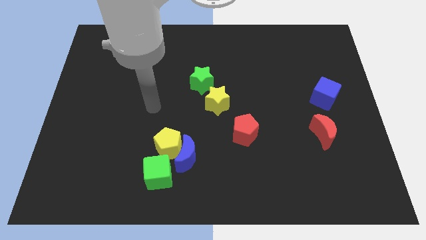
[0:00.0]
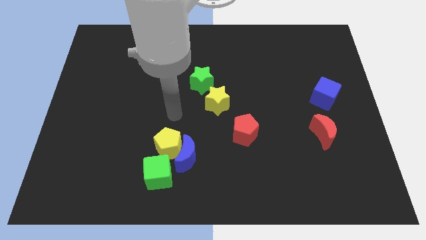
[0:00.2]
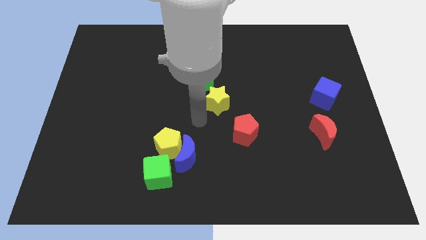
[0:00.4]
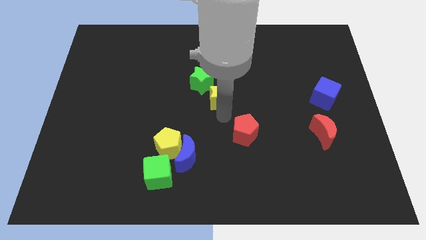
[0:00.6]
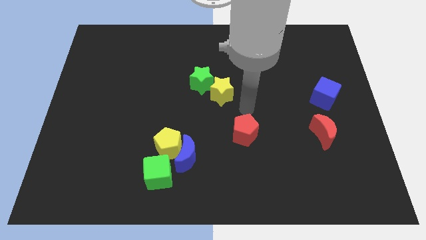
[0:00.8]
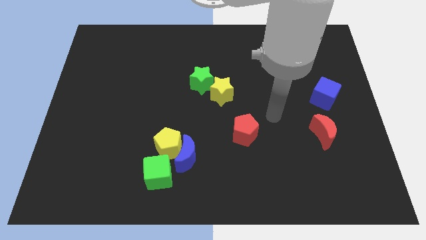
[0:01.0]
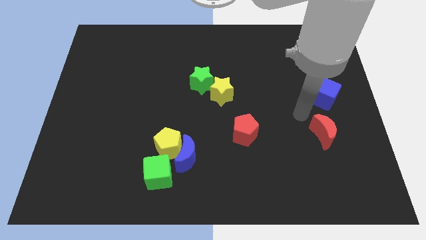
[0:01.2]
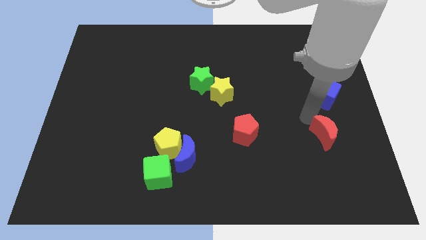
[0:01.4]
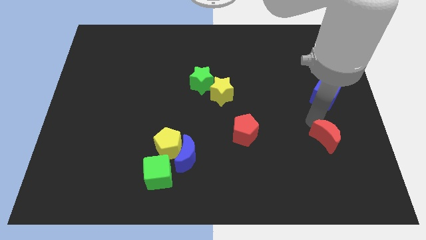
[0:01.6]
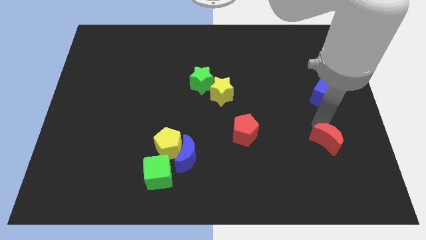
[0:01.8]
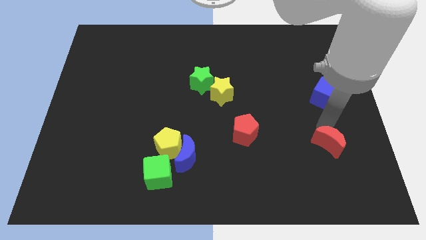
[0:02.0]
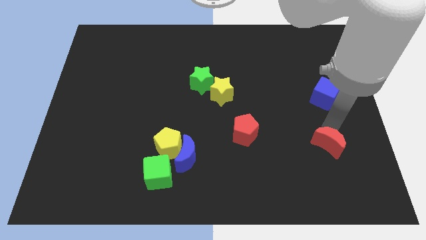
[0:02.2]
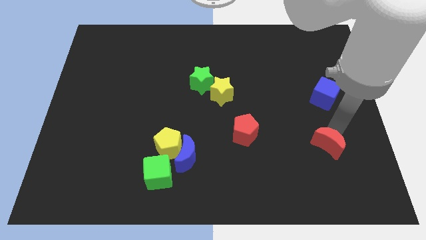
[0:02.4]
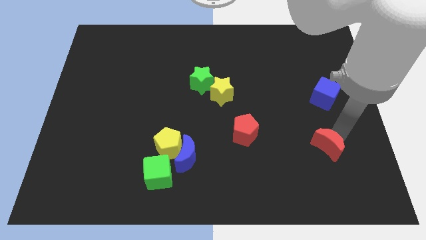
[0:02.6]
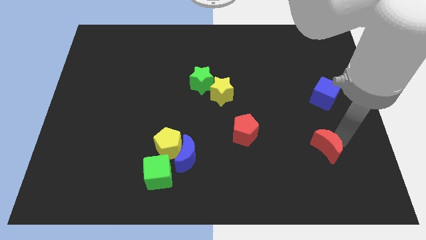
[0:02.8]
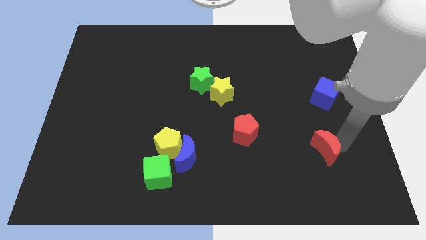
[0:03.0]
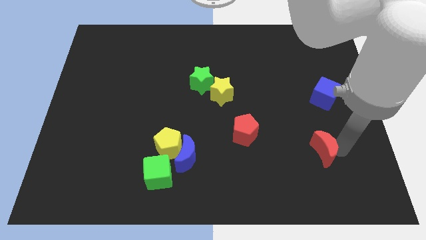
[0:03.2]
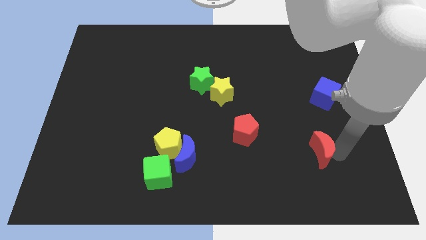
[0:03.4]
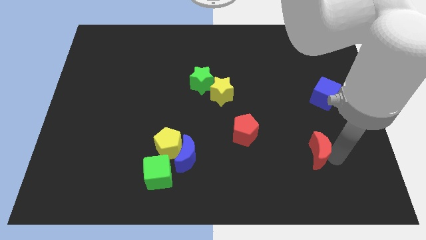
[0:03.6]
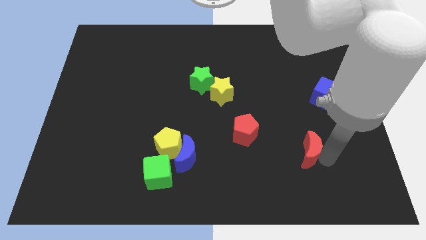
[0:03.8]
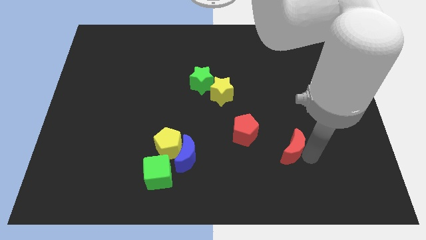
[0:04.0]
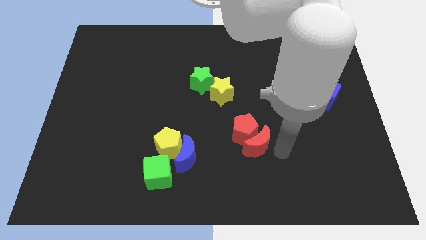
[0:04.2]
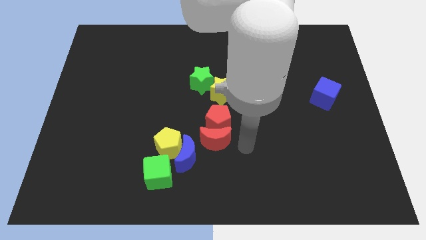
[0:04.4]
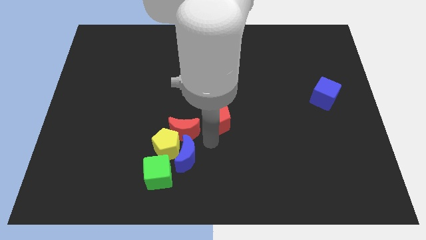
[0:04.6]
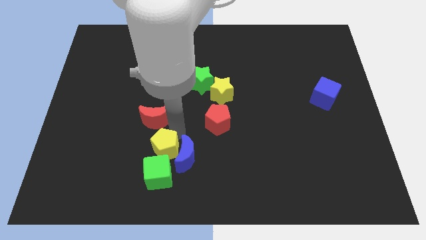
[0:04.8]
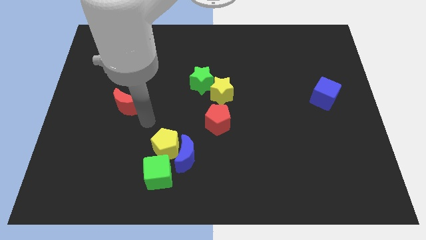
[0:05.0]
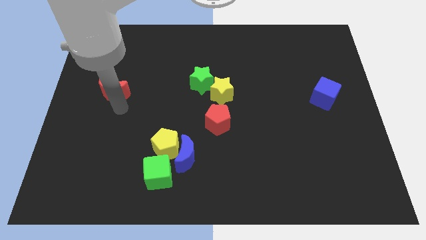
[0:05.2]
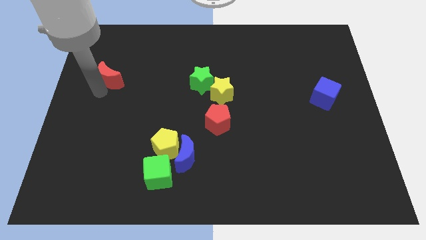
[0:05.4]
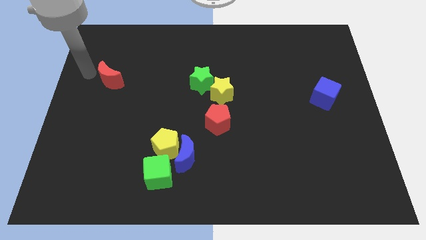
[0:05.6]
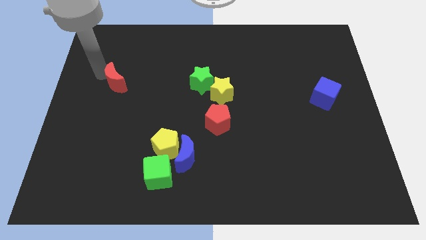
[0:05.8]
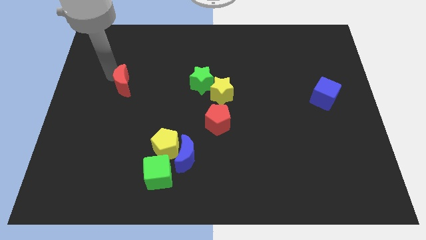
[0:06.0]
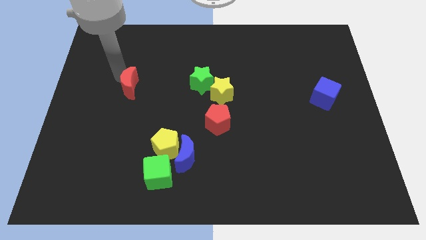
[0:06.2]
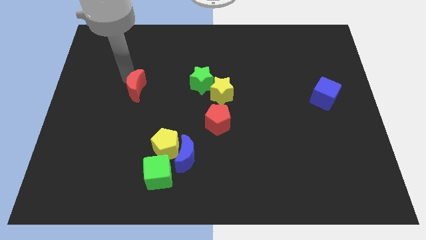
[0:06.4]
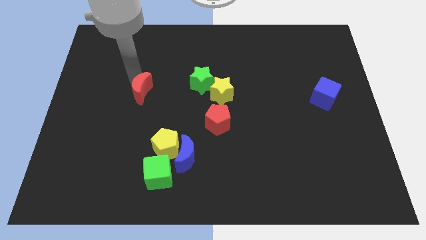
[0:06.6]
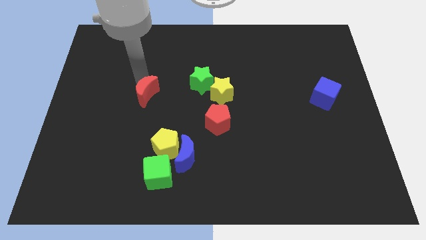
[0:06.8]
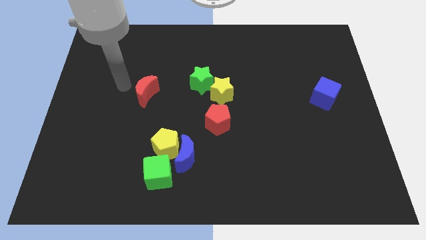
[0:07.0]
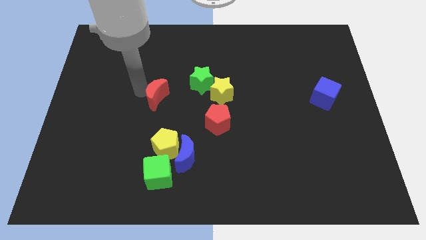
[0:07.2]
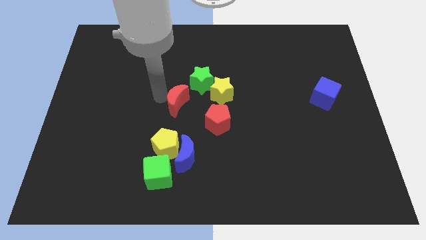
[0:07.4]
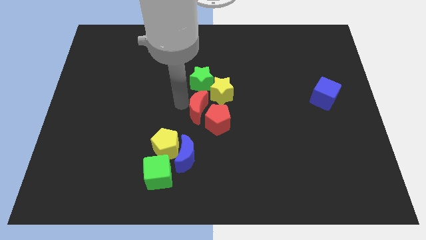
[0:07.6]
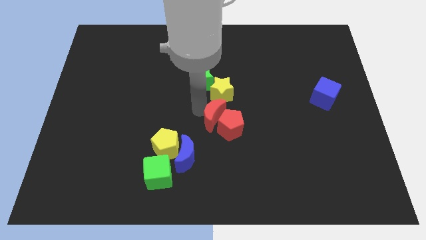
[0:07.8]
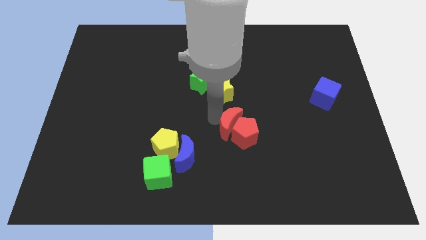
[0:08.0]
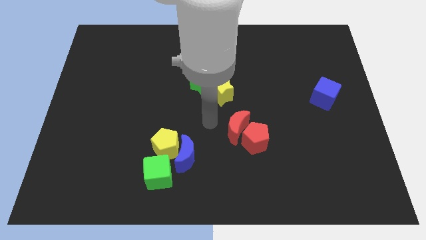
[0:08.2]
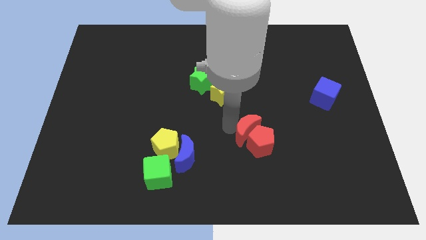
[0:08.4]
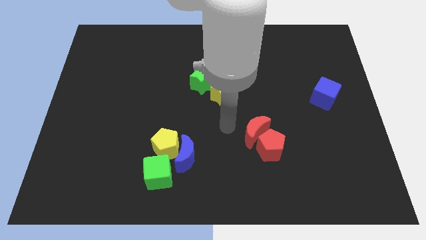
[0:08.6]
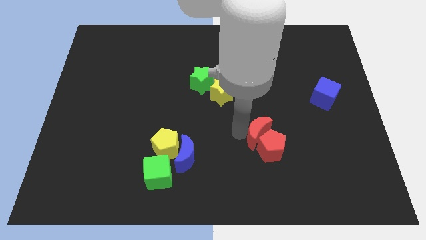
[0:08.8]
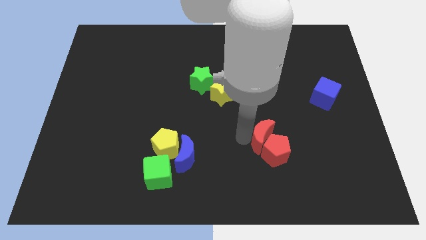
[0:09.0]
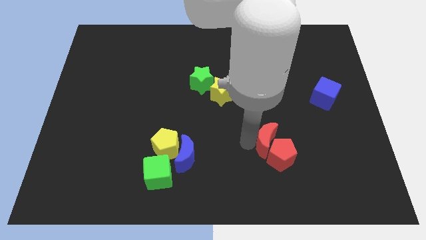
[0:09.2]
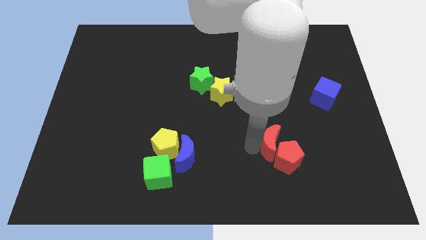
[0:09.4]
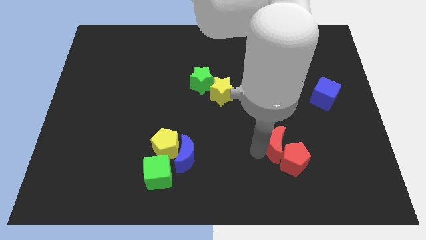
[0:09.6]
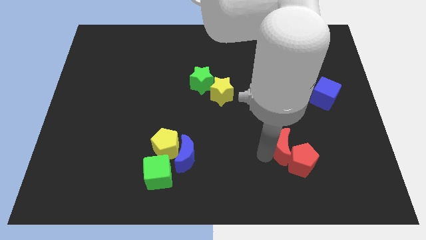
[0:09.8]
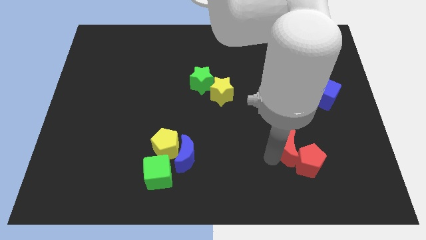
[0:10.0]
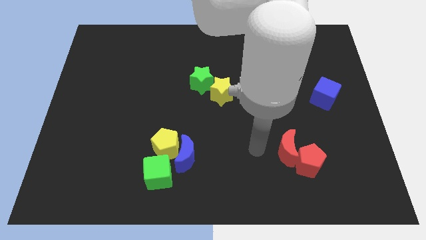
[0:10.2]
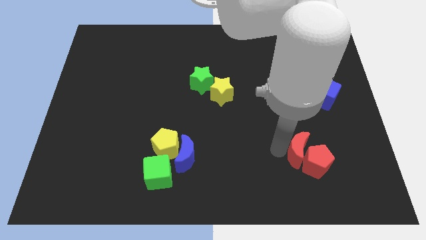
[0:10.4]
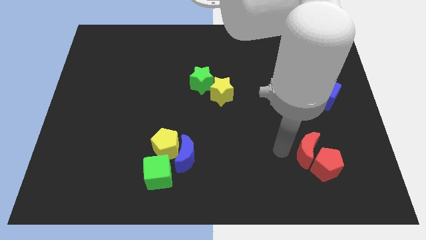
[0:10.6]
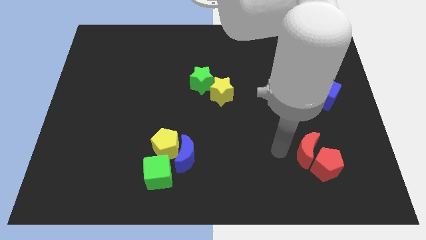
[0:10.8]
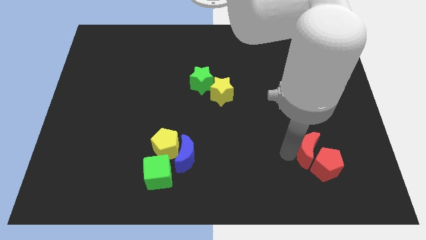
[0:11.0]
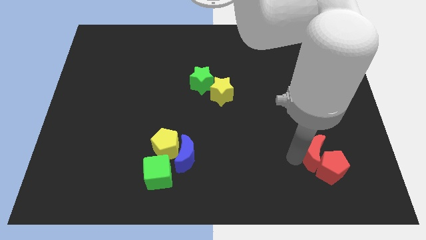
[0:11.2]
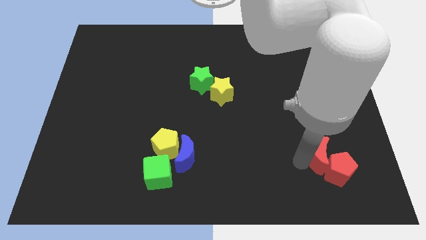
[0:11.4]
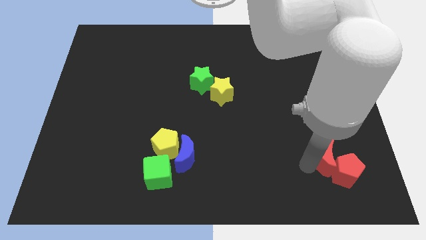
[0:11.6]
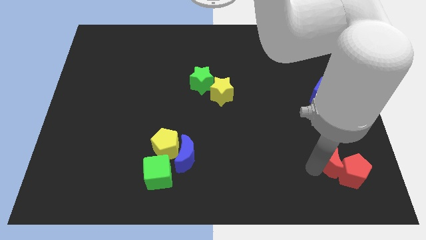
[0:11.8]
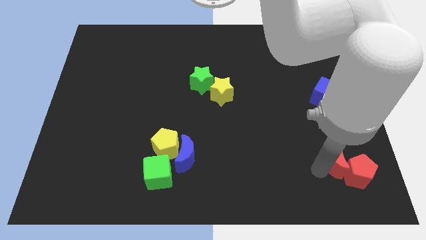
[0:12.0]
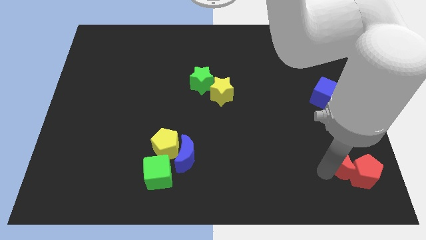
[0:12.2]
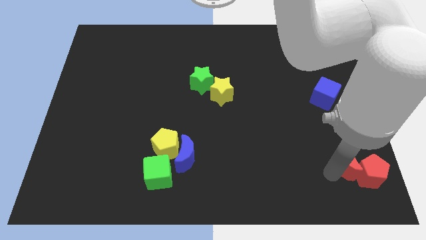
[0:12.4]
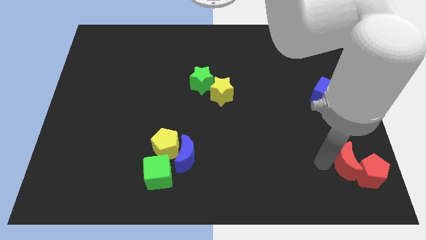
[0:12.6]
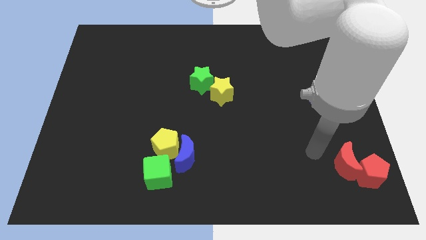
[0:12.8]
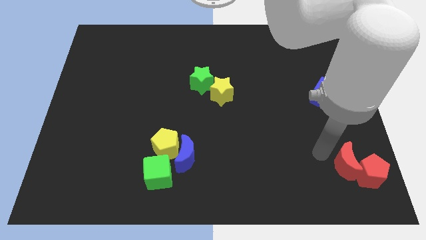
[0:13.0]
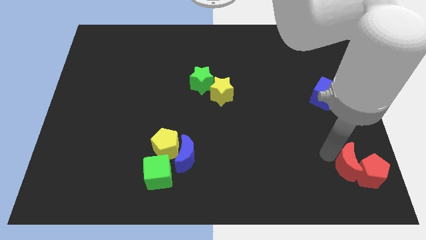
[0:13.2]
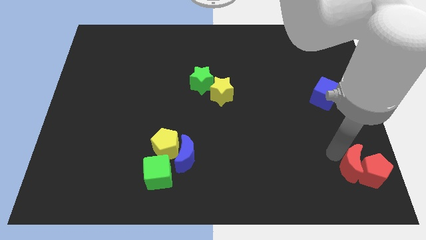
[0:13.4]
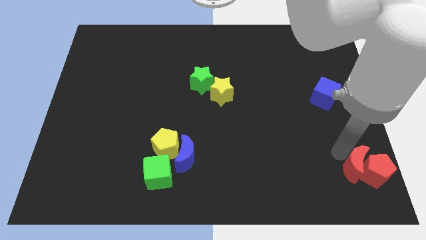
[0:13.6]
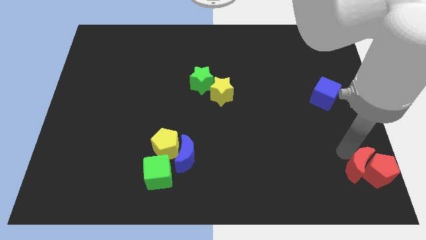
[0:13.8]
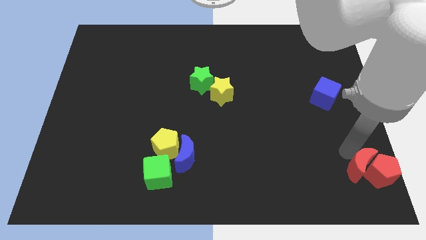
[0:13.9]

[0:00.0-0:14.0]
slide the red moon to the bottom right of the board

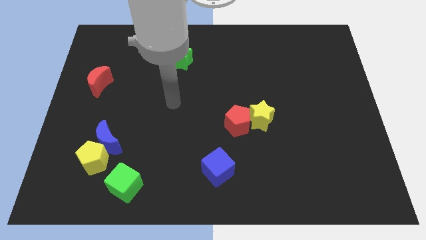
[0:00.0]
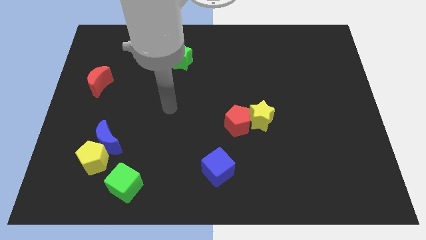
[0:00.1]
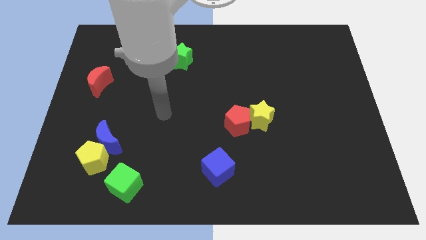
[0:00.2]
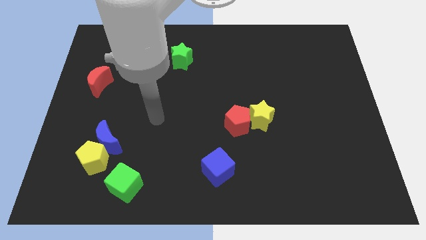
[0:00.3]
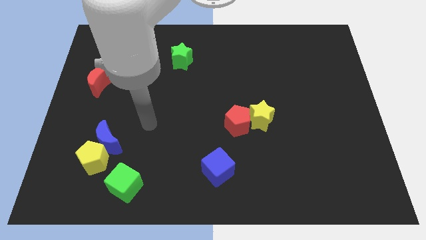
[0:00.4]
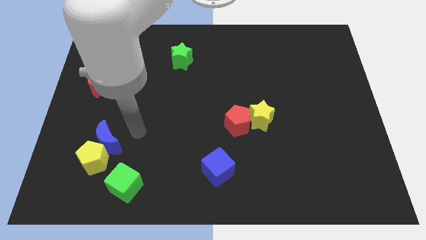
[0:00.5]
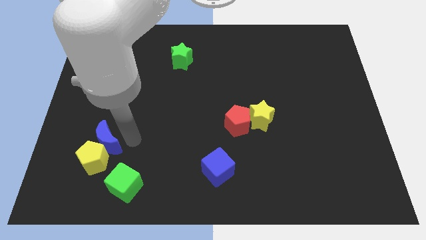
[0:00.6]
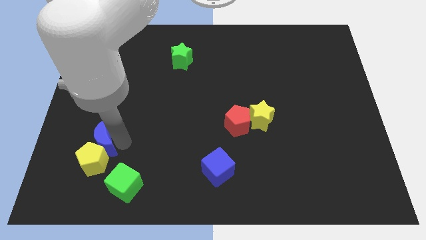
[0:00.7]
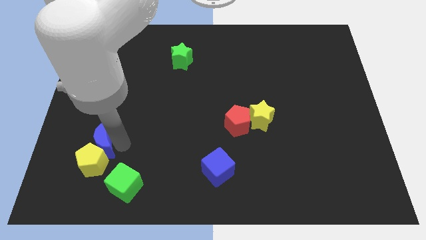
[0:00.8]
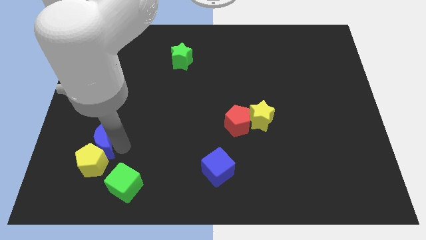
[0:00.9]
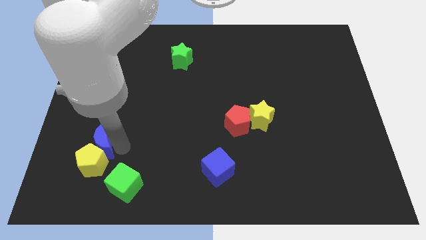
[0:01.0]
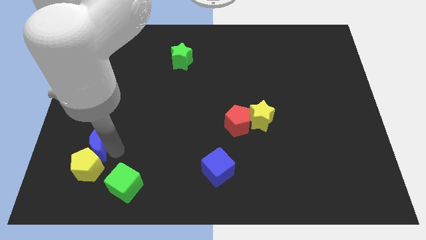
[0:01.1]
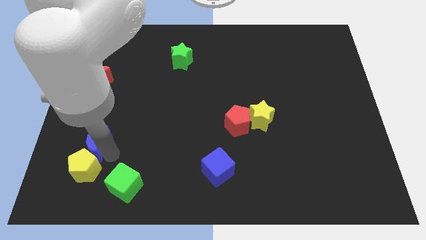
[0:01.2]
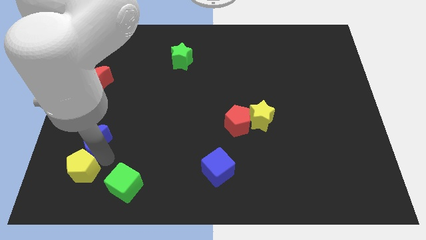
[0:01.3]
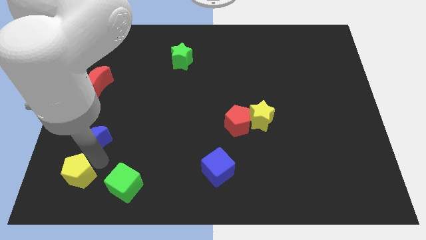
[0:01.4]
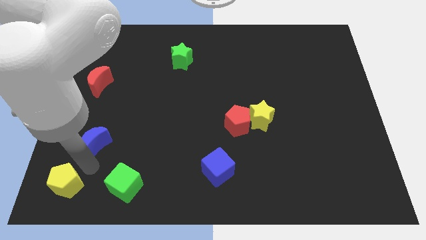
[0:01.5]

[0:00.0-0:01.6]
slide the yellow pentagon to the bottom left of the board
